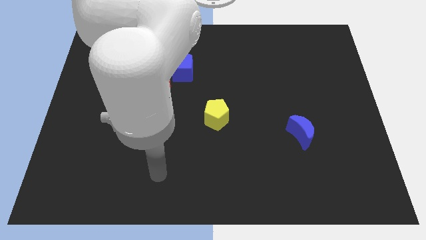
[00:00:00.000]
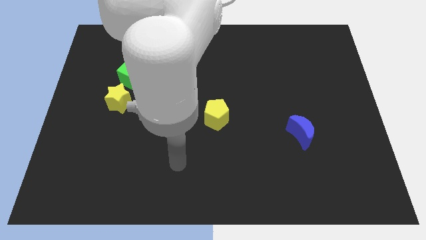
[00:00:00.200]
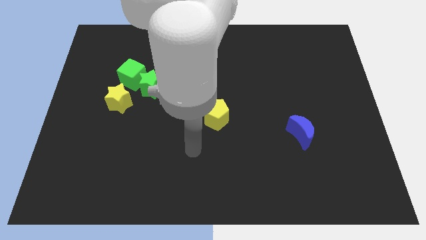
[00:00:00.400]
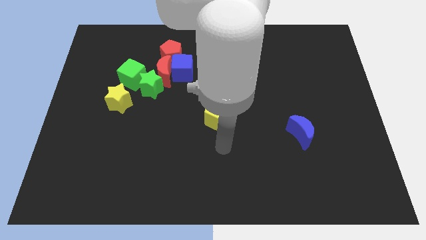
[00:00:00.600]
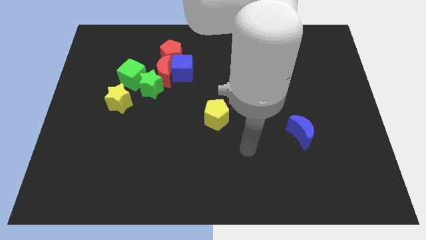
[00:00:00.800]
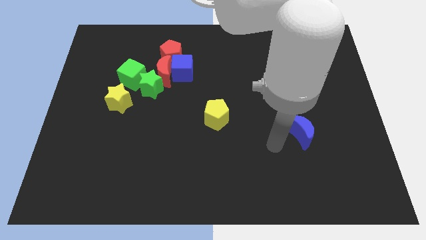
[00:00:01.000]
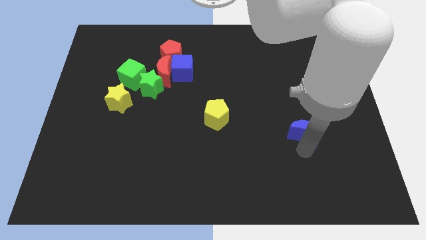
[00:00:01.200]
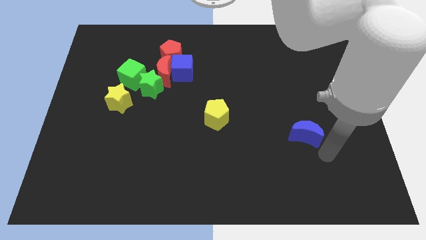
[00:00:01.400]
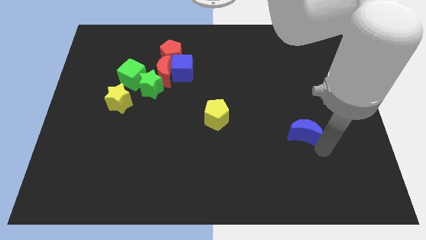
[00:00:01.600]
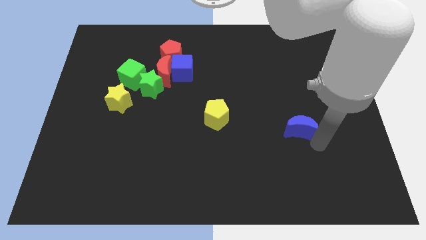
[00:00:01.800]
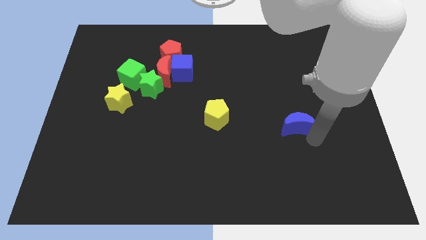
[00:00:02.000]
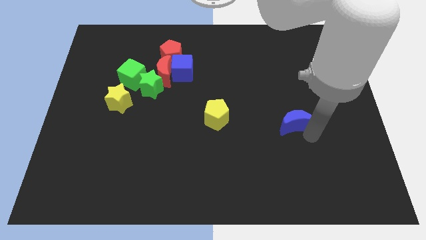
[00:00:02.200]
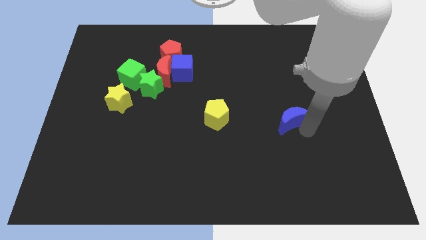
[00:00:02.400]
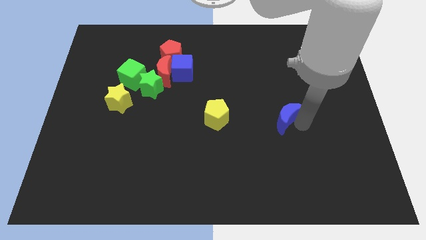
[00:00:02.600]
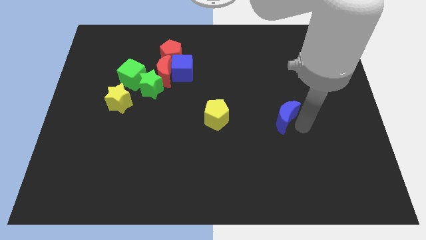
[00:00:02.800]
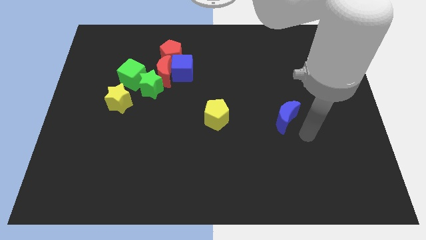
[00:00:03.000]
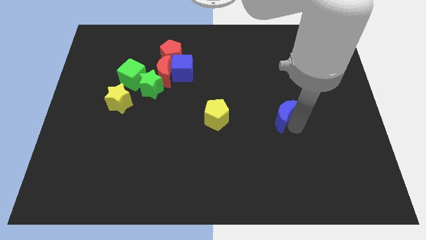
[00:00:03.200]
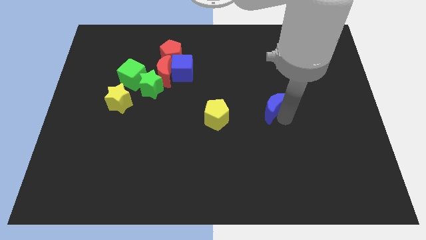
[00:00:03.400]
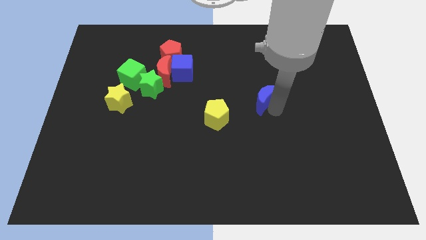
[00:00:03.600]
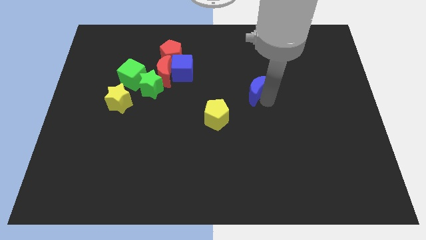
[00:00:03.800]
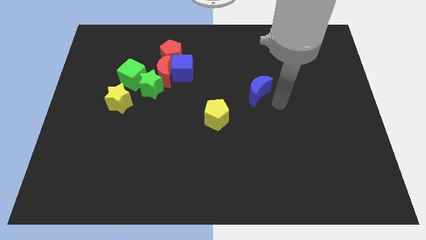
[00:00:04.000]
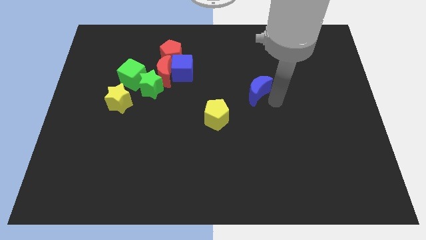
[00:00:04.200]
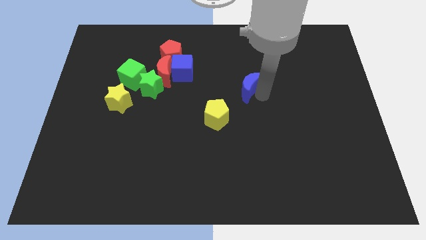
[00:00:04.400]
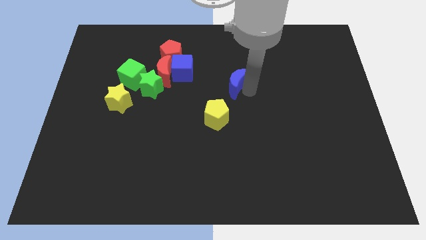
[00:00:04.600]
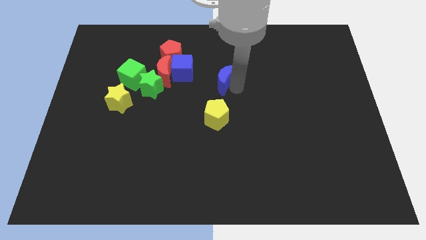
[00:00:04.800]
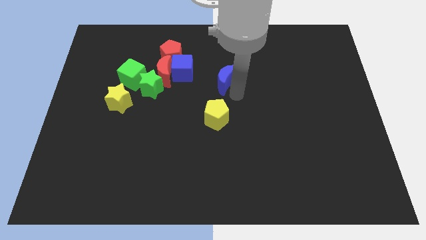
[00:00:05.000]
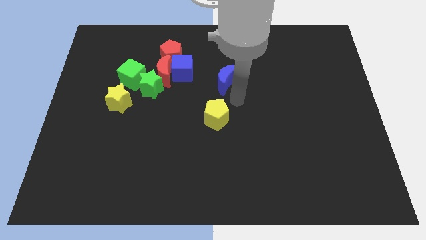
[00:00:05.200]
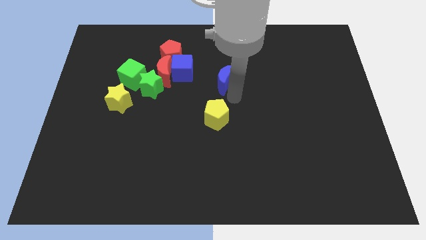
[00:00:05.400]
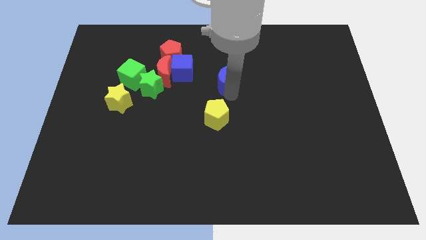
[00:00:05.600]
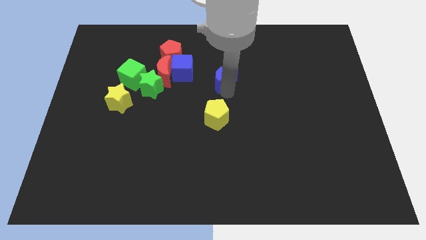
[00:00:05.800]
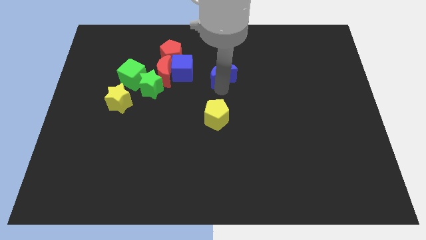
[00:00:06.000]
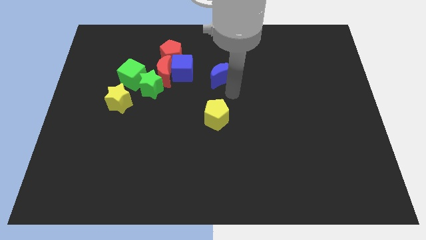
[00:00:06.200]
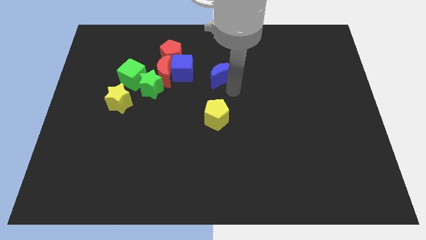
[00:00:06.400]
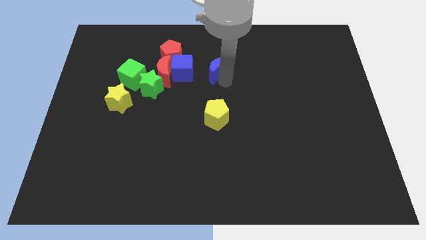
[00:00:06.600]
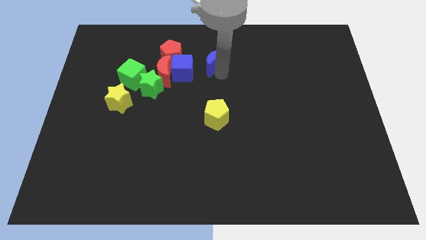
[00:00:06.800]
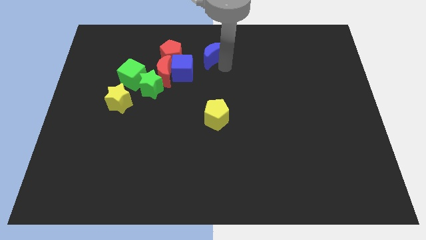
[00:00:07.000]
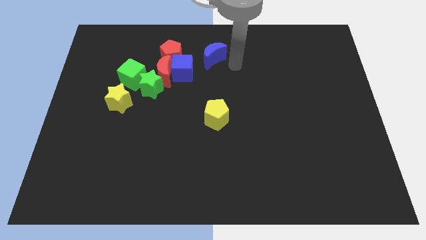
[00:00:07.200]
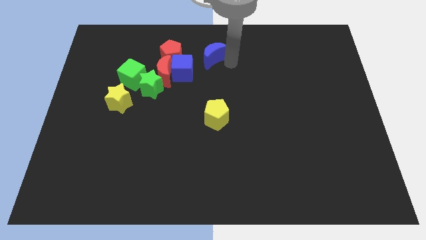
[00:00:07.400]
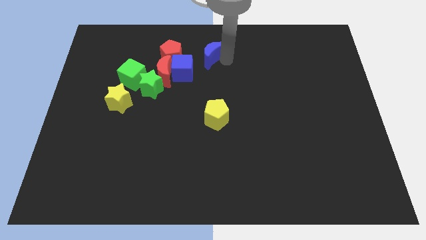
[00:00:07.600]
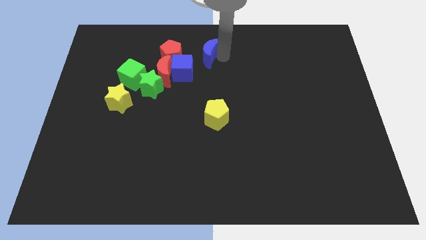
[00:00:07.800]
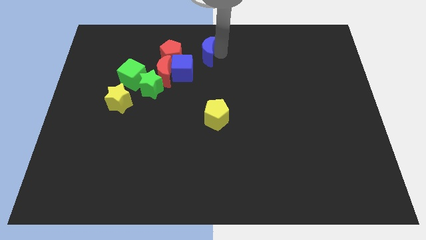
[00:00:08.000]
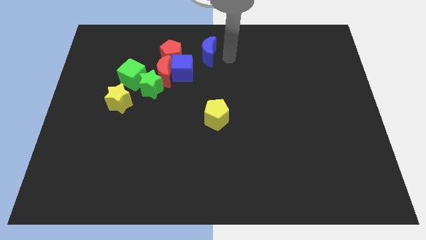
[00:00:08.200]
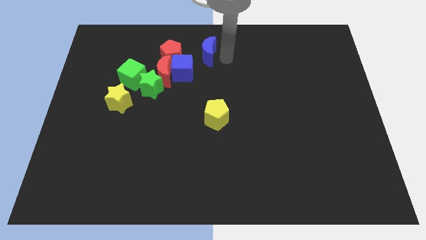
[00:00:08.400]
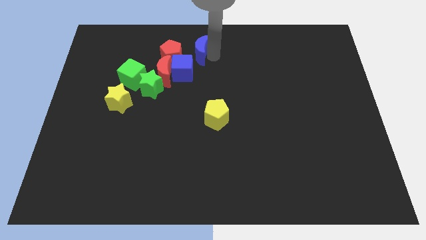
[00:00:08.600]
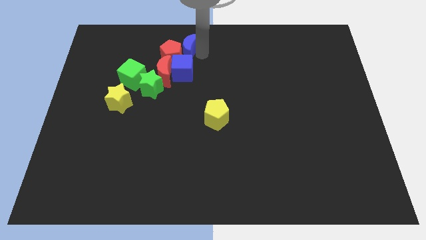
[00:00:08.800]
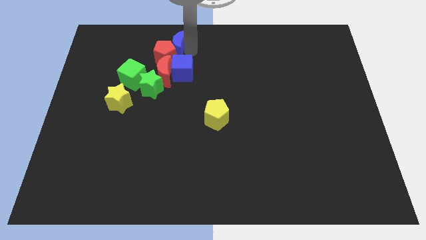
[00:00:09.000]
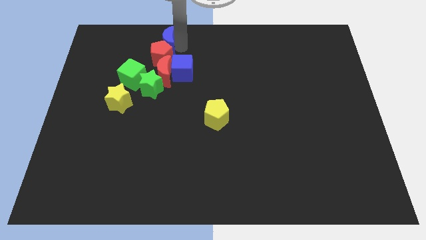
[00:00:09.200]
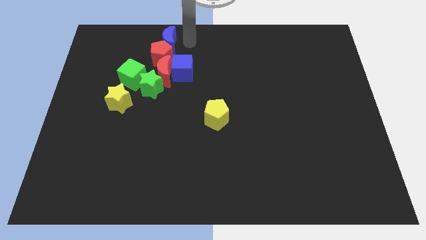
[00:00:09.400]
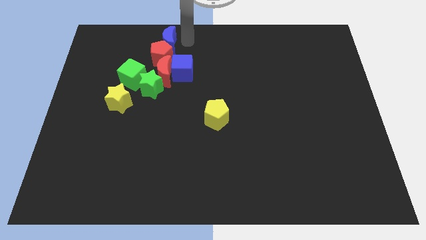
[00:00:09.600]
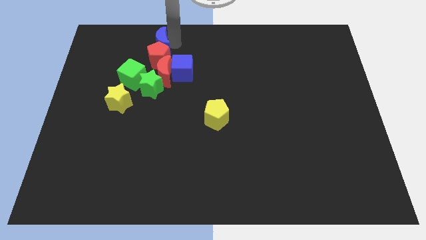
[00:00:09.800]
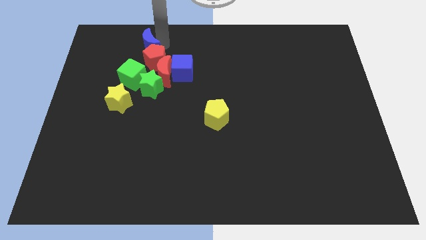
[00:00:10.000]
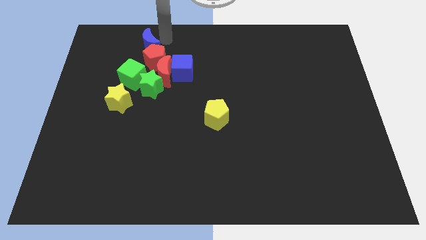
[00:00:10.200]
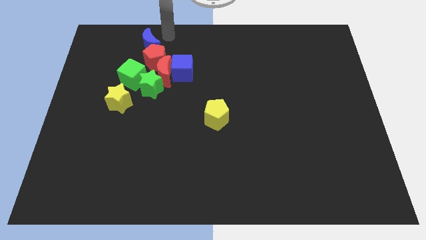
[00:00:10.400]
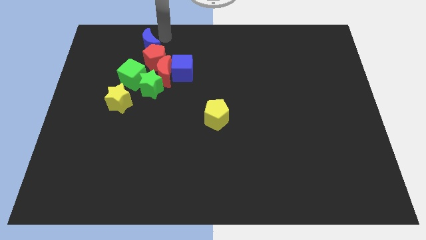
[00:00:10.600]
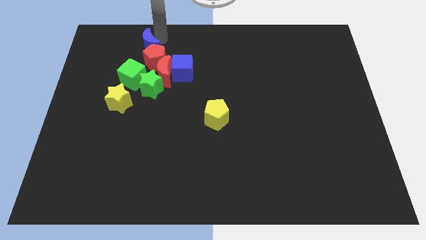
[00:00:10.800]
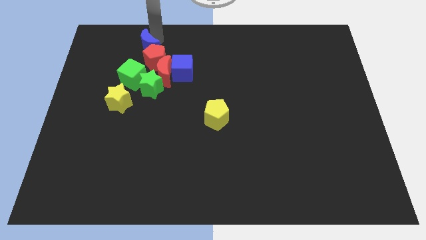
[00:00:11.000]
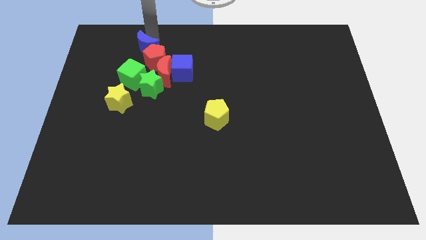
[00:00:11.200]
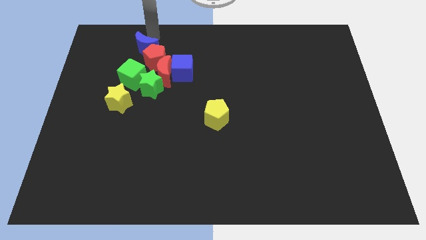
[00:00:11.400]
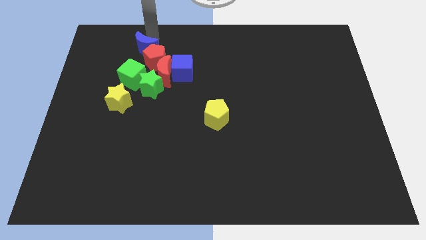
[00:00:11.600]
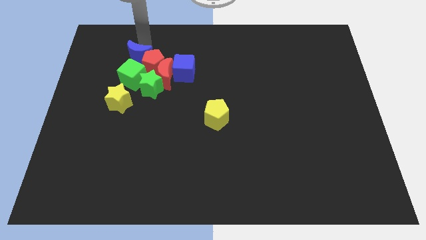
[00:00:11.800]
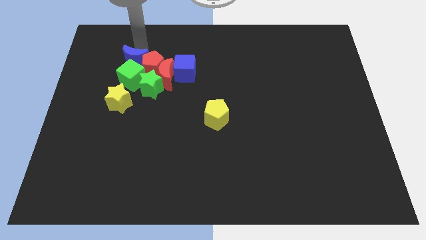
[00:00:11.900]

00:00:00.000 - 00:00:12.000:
put the blue moon diagonally up and to the left of the green star

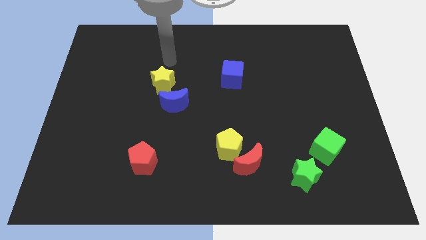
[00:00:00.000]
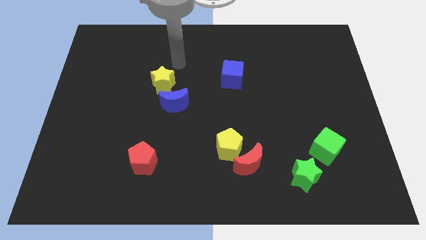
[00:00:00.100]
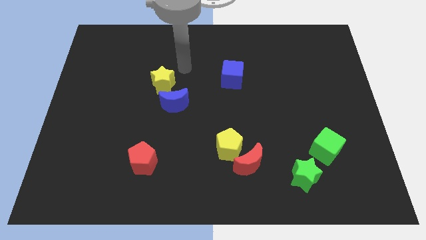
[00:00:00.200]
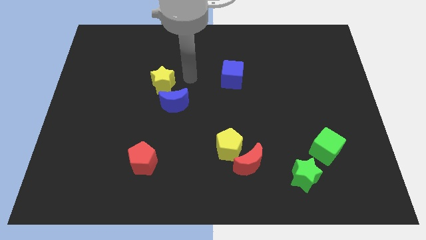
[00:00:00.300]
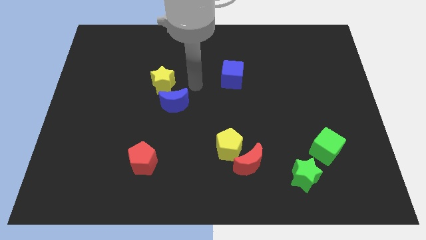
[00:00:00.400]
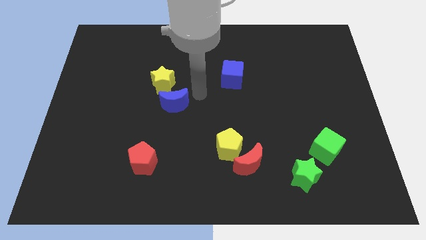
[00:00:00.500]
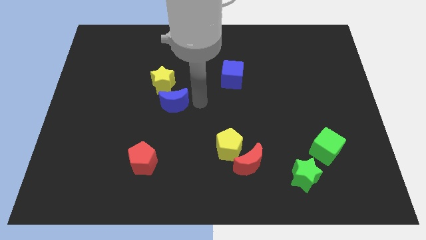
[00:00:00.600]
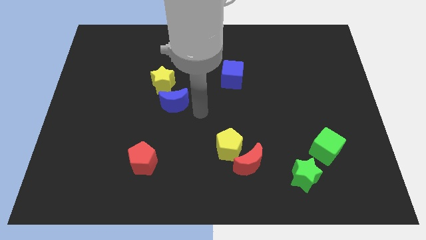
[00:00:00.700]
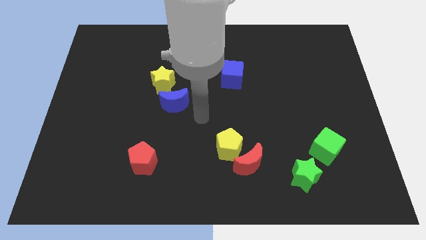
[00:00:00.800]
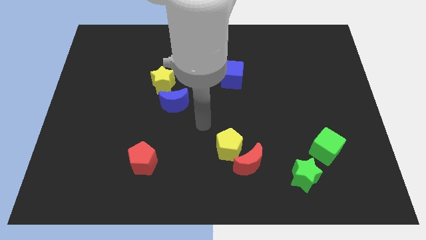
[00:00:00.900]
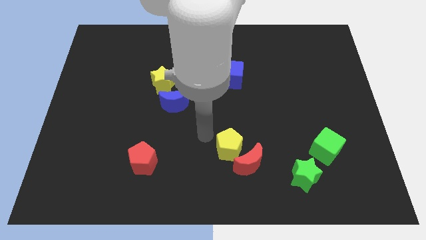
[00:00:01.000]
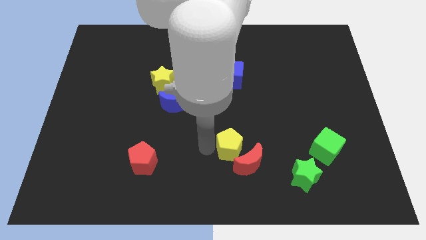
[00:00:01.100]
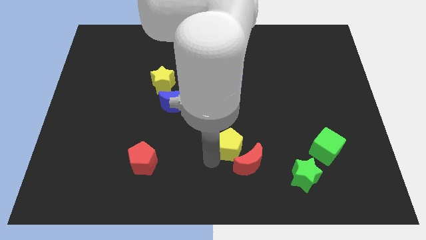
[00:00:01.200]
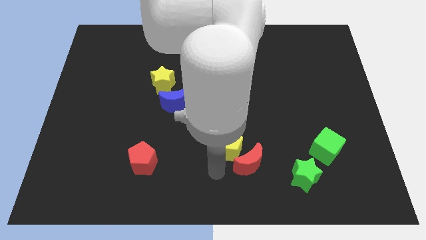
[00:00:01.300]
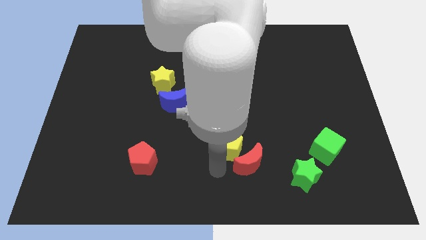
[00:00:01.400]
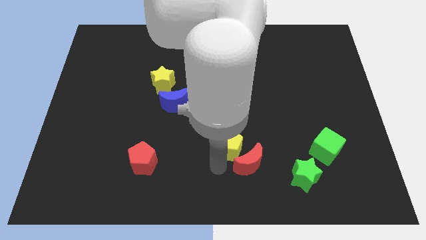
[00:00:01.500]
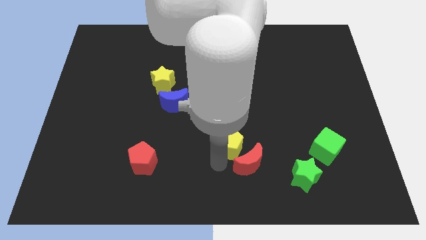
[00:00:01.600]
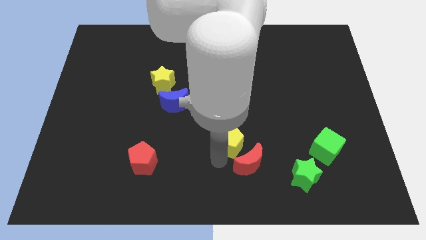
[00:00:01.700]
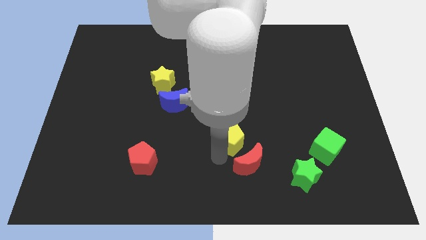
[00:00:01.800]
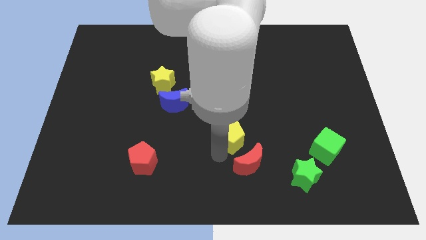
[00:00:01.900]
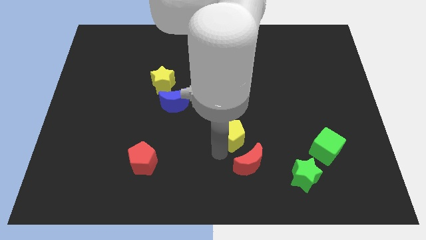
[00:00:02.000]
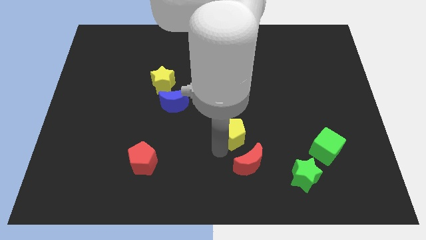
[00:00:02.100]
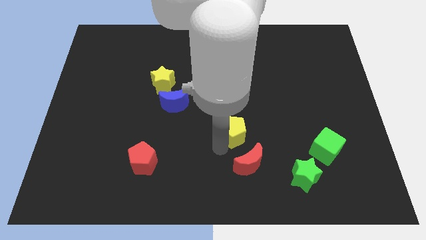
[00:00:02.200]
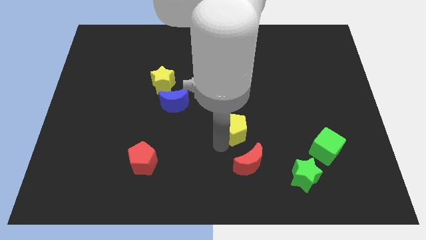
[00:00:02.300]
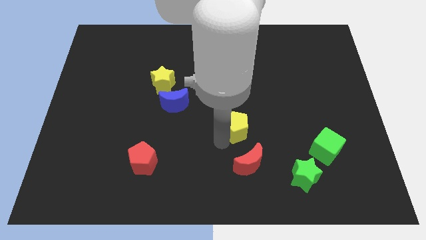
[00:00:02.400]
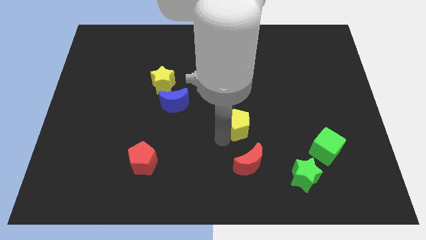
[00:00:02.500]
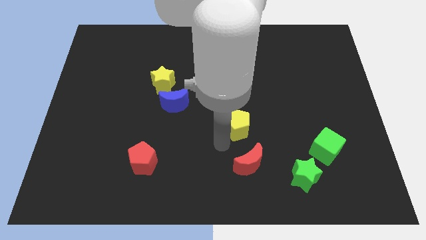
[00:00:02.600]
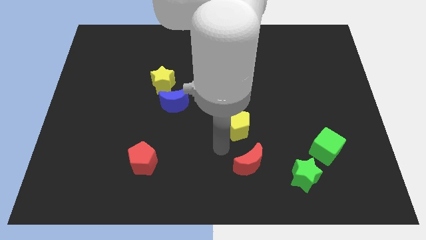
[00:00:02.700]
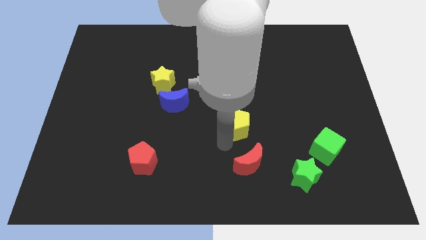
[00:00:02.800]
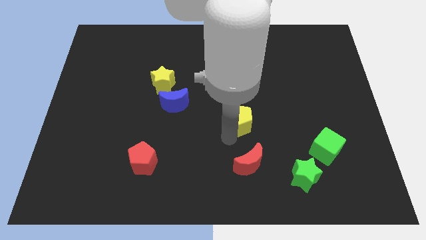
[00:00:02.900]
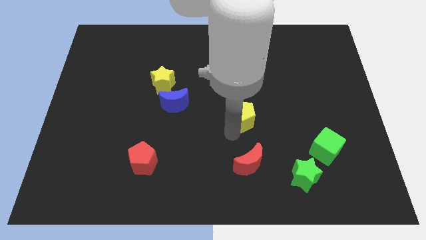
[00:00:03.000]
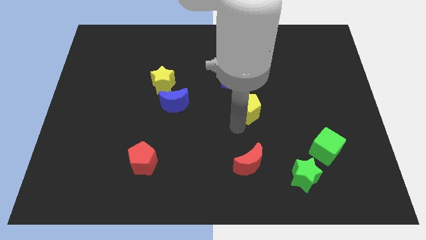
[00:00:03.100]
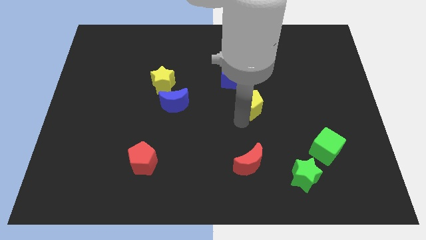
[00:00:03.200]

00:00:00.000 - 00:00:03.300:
push the yellow pentagon diagonally down and to the right of the blue cube
